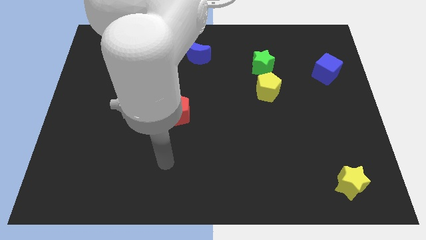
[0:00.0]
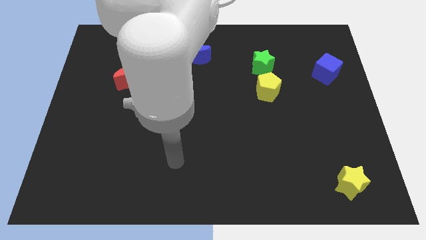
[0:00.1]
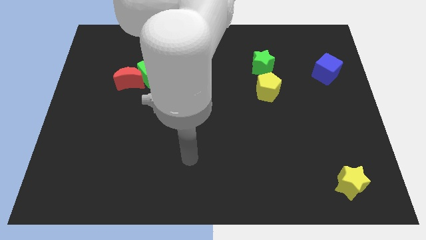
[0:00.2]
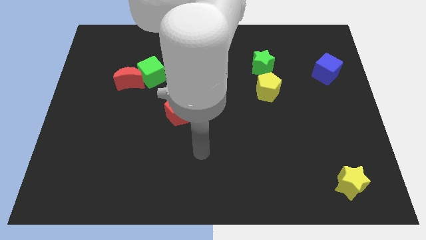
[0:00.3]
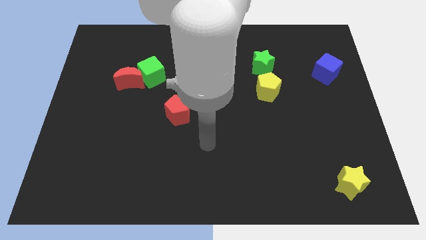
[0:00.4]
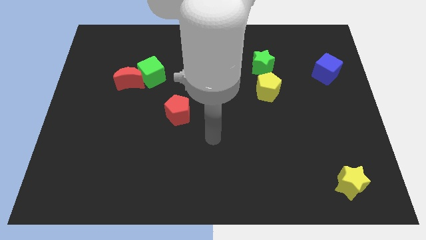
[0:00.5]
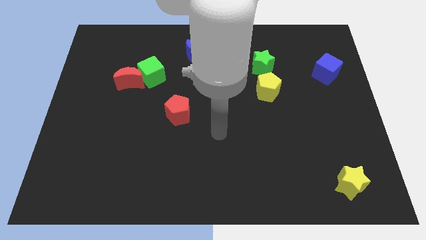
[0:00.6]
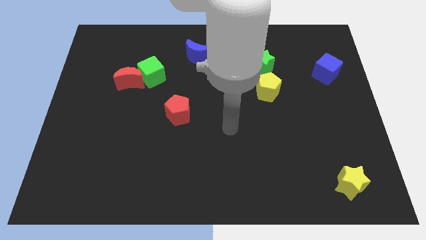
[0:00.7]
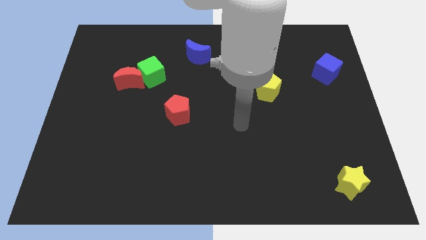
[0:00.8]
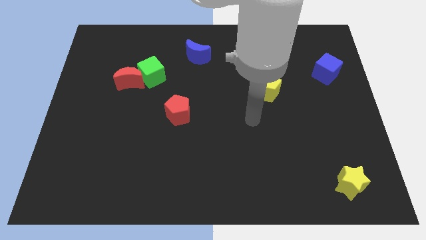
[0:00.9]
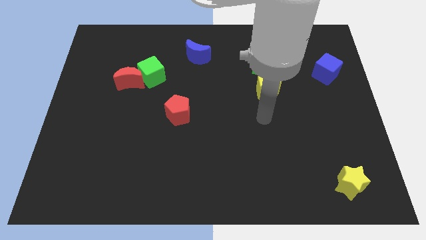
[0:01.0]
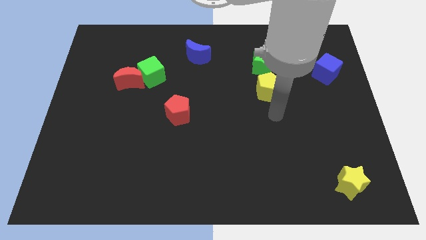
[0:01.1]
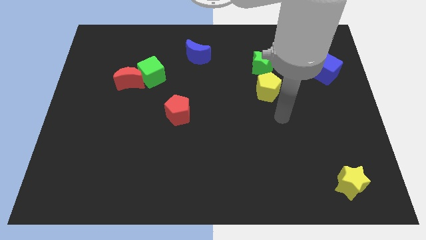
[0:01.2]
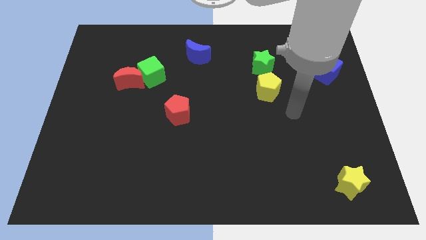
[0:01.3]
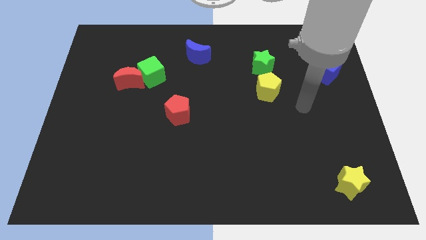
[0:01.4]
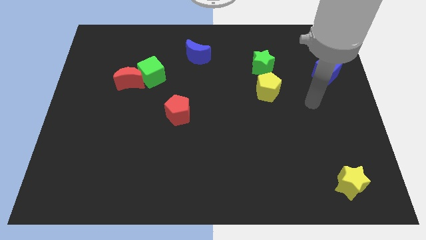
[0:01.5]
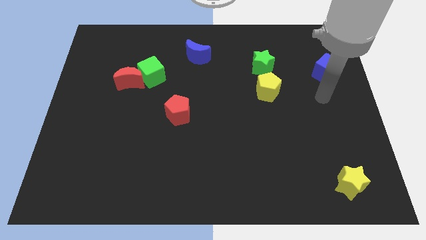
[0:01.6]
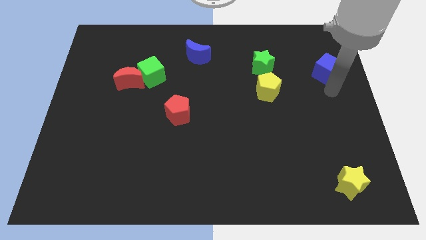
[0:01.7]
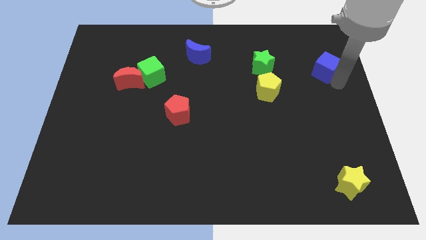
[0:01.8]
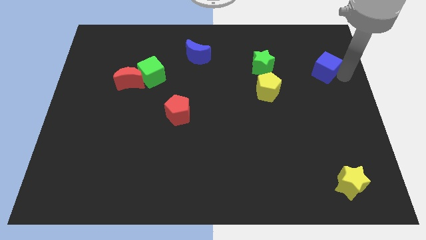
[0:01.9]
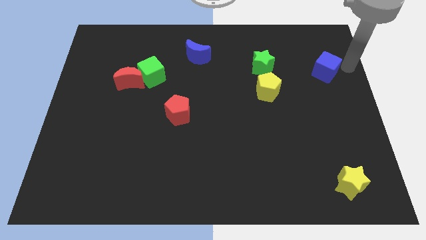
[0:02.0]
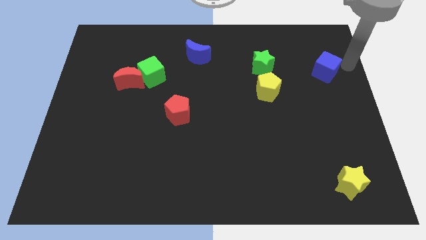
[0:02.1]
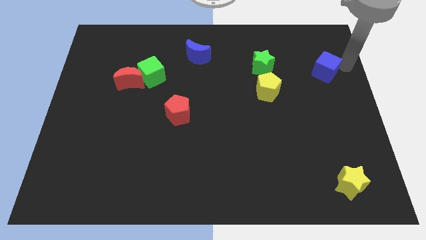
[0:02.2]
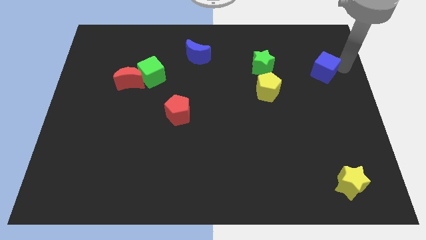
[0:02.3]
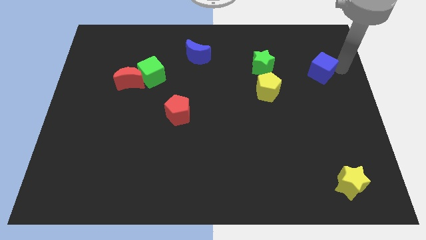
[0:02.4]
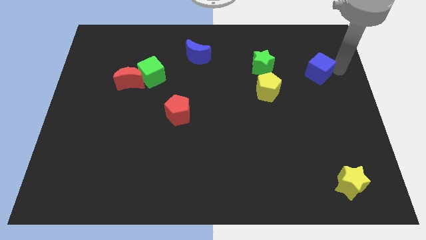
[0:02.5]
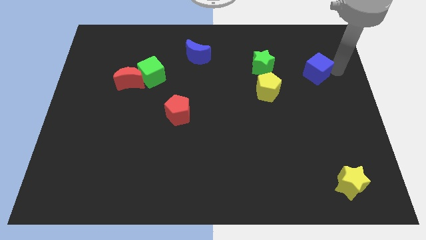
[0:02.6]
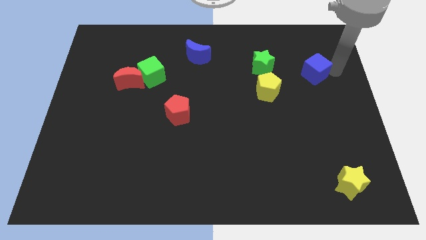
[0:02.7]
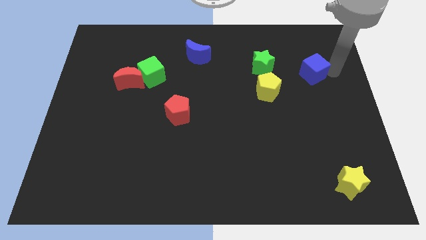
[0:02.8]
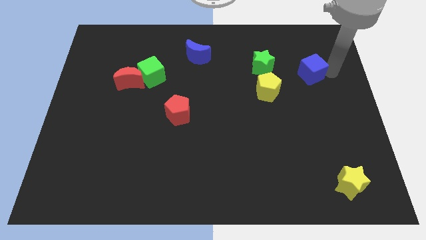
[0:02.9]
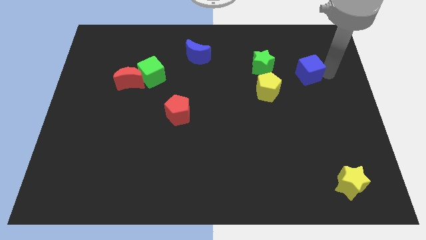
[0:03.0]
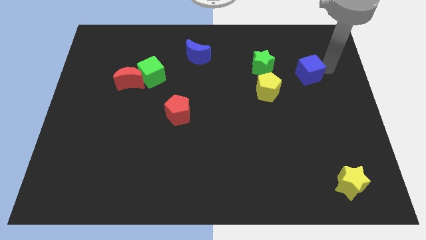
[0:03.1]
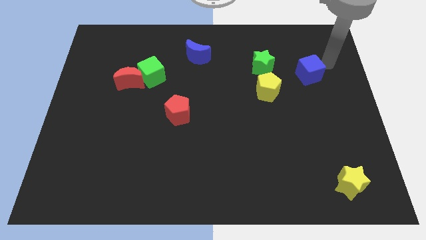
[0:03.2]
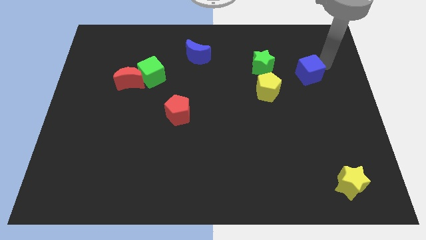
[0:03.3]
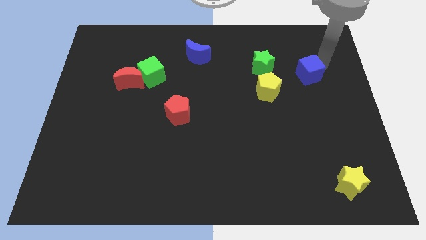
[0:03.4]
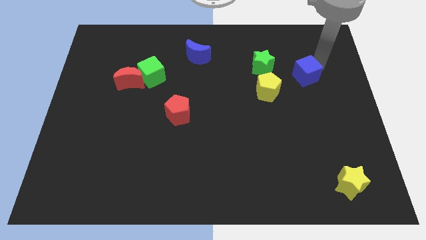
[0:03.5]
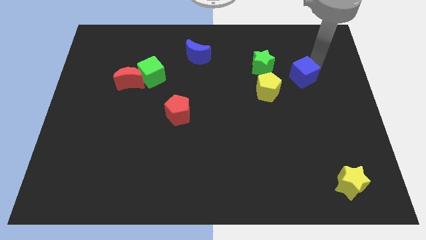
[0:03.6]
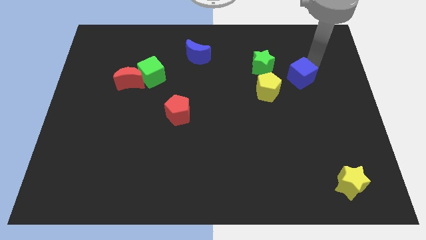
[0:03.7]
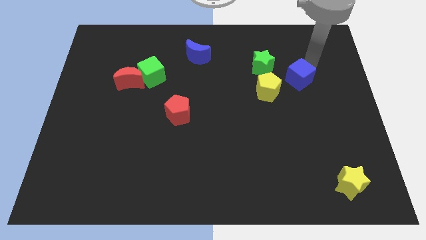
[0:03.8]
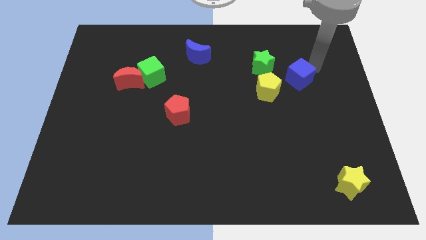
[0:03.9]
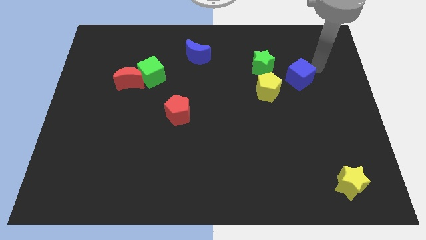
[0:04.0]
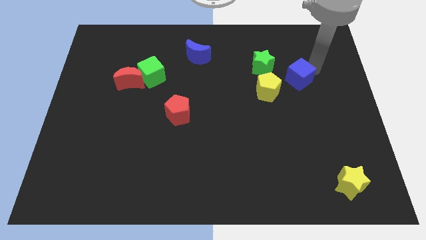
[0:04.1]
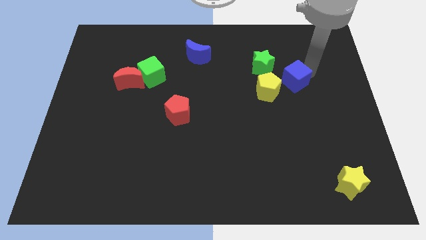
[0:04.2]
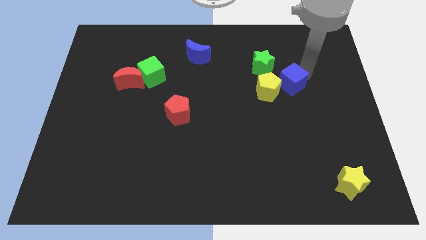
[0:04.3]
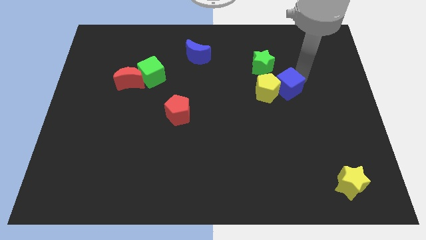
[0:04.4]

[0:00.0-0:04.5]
push the blue cube next to the yellow pentagon

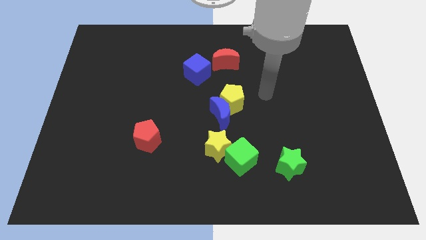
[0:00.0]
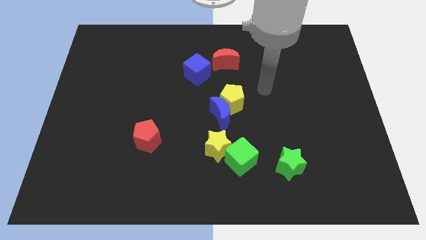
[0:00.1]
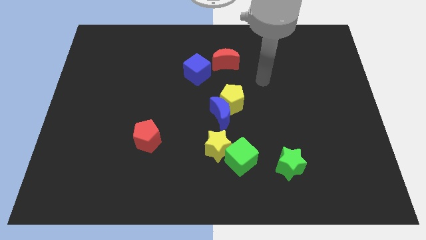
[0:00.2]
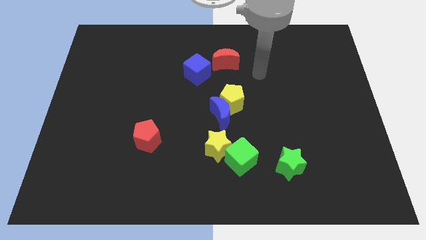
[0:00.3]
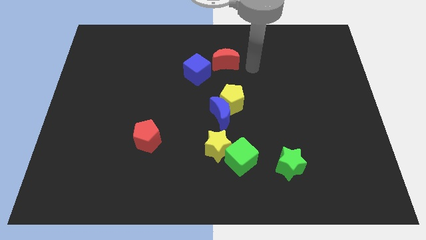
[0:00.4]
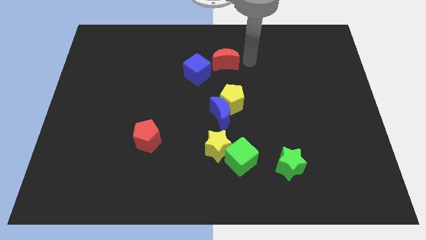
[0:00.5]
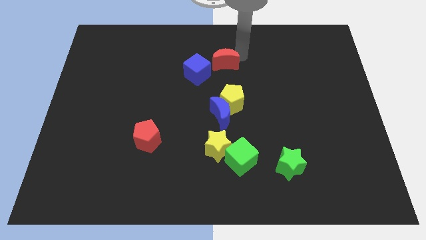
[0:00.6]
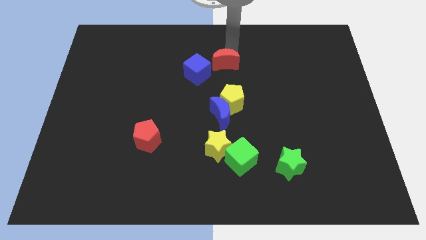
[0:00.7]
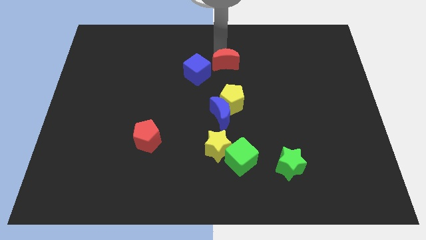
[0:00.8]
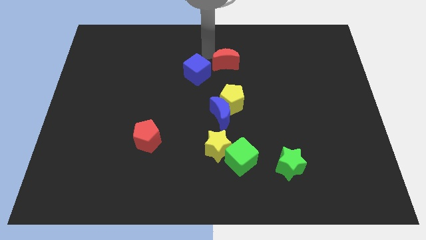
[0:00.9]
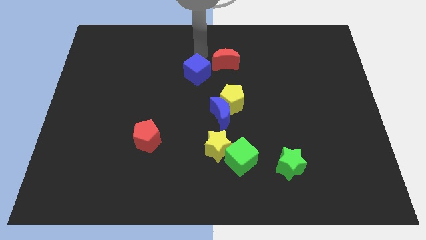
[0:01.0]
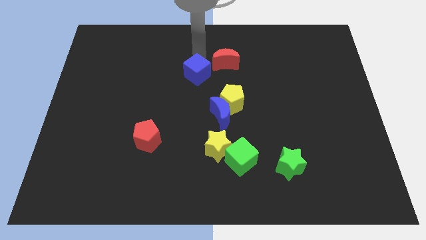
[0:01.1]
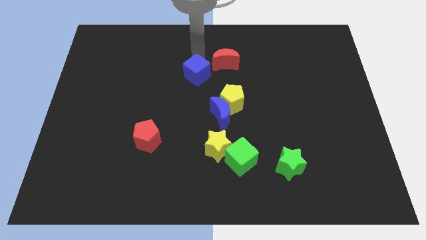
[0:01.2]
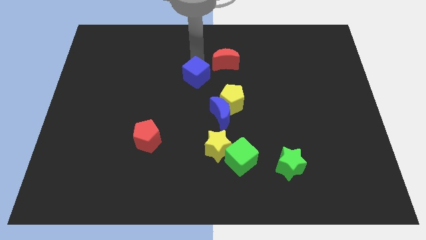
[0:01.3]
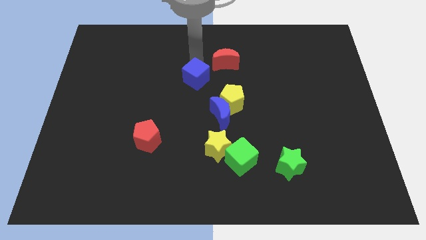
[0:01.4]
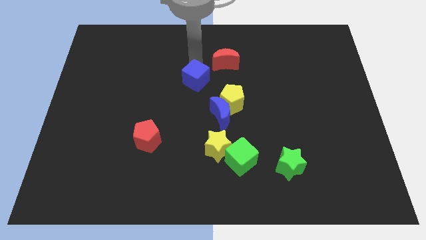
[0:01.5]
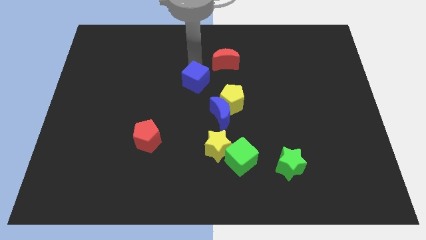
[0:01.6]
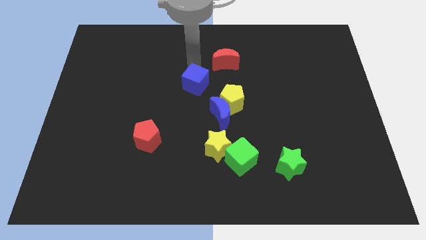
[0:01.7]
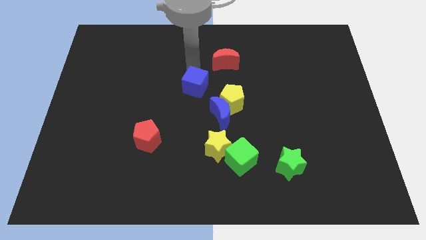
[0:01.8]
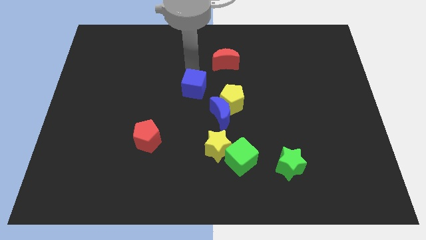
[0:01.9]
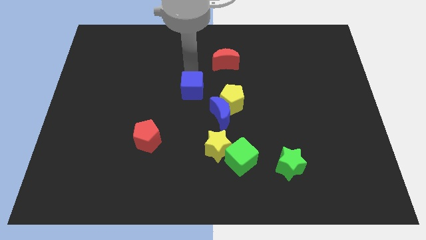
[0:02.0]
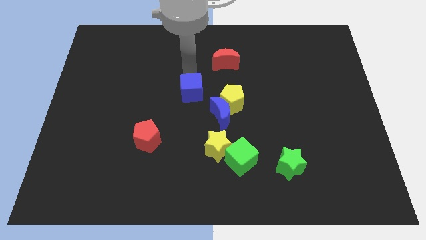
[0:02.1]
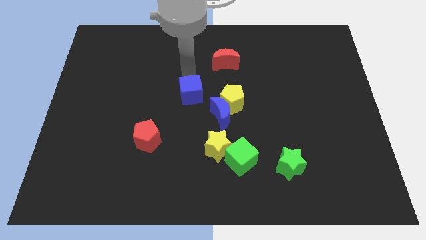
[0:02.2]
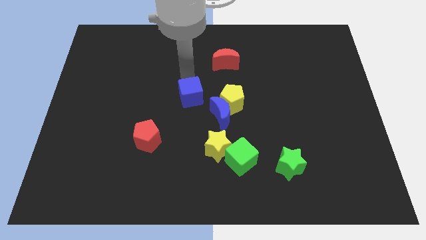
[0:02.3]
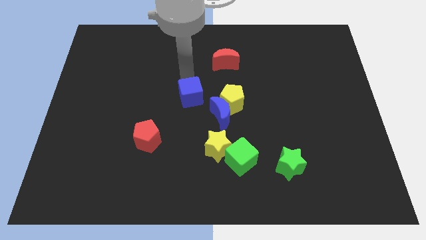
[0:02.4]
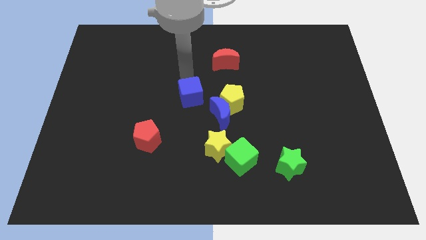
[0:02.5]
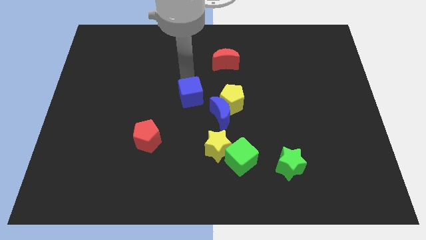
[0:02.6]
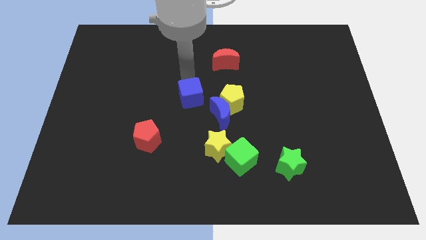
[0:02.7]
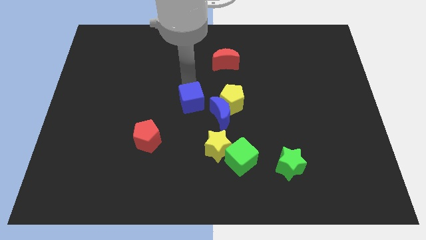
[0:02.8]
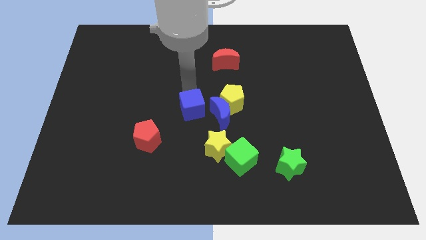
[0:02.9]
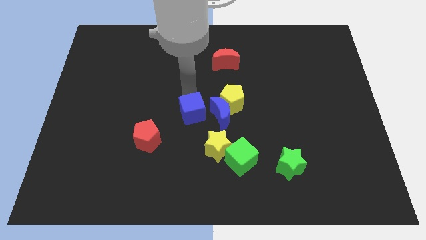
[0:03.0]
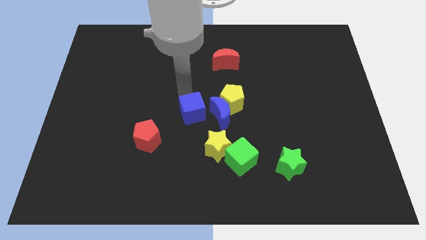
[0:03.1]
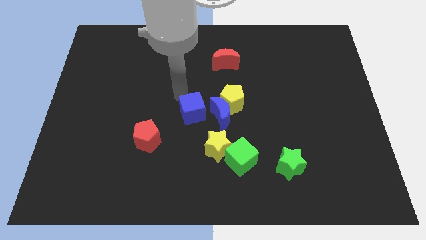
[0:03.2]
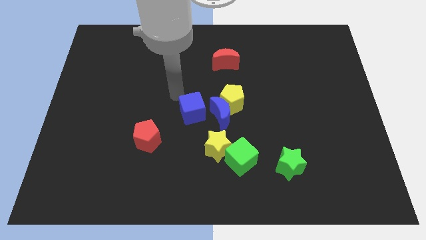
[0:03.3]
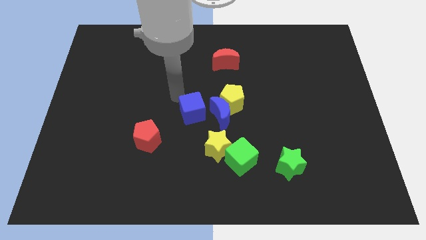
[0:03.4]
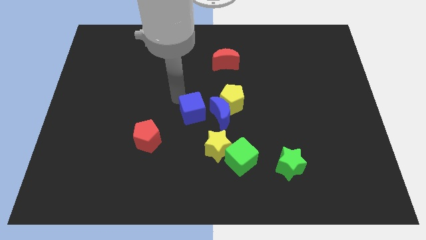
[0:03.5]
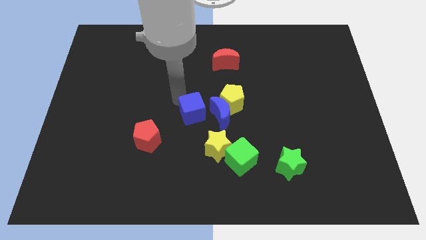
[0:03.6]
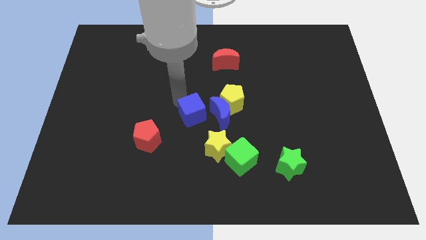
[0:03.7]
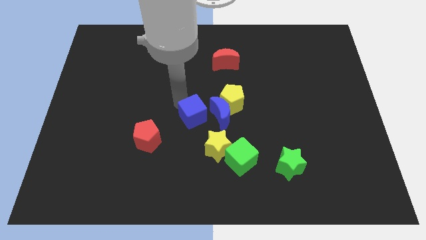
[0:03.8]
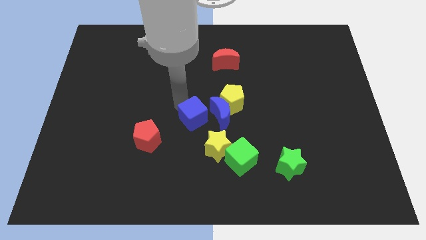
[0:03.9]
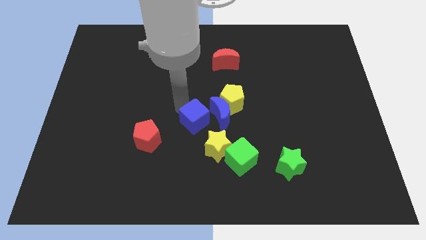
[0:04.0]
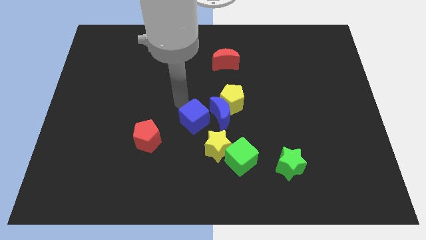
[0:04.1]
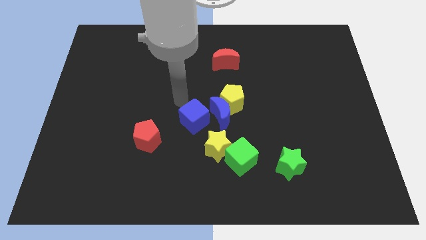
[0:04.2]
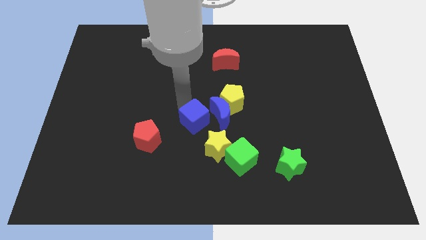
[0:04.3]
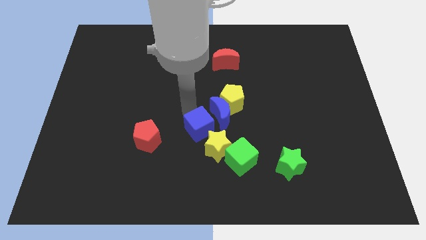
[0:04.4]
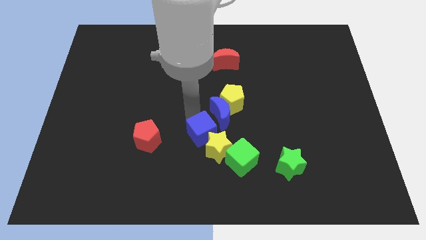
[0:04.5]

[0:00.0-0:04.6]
move the blue cube towards the yellow star
